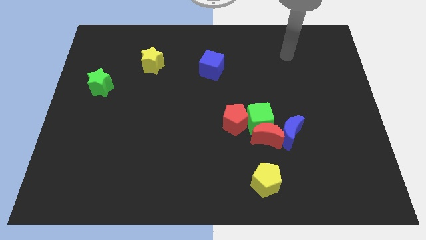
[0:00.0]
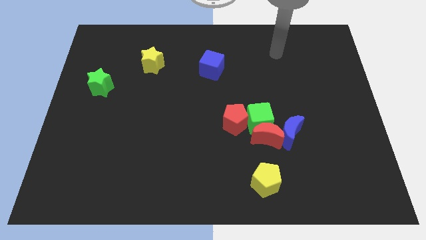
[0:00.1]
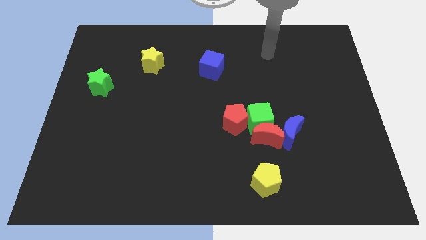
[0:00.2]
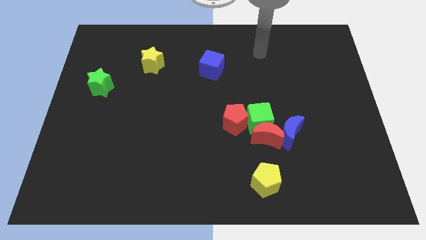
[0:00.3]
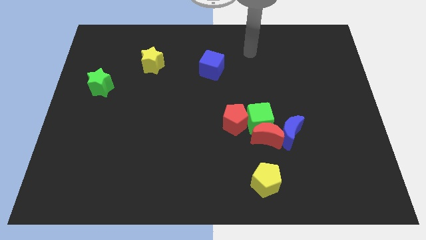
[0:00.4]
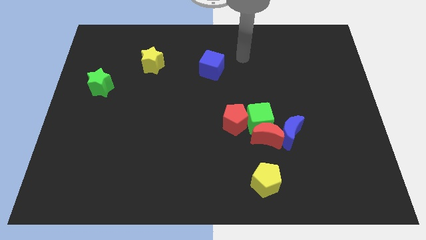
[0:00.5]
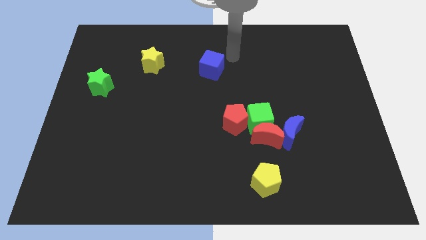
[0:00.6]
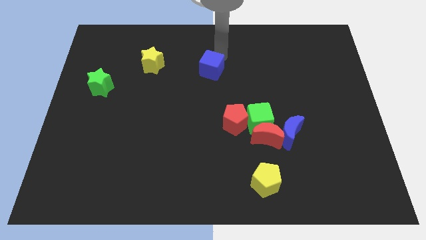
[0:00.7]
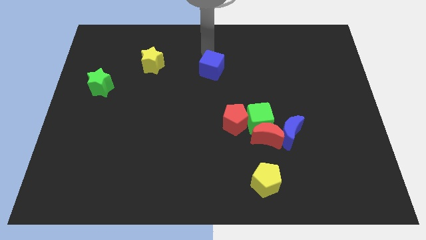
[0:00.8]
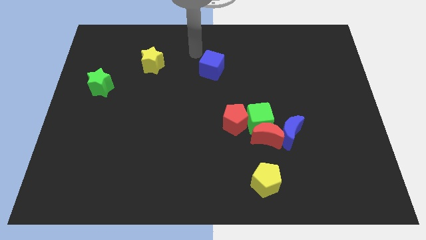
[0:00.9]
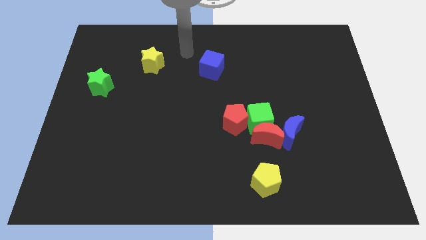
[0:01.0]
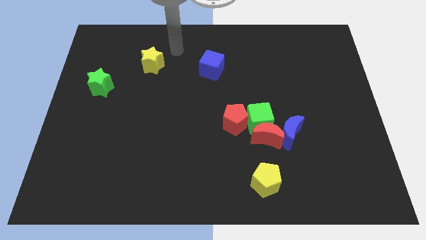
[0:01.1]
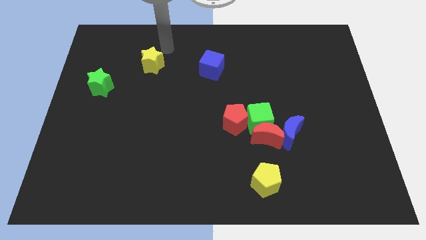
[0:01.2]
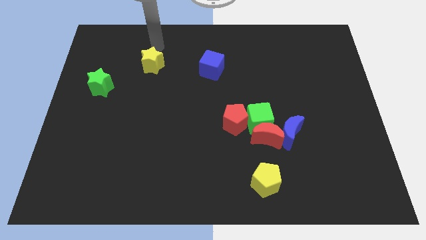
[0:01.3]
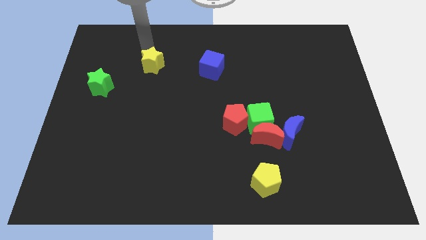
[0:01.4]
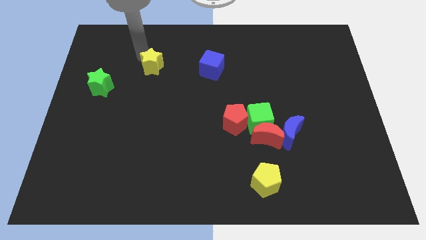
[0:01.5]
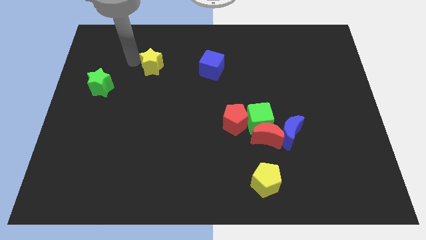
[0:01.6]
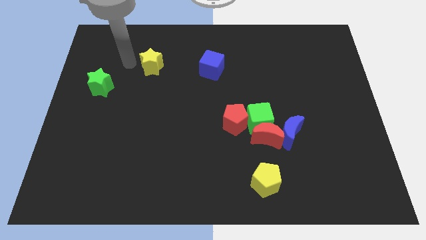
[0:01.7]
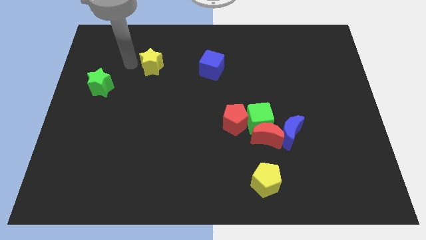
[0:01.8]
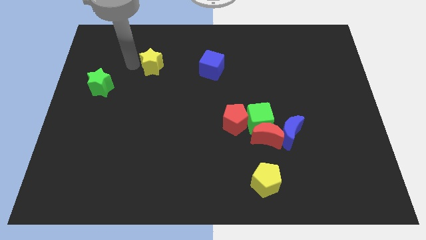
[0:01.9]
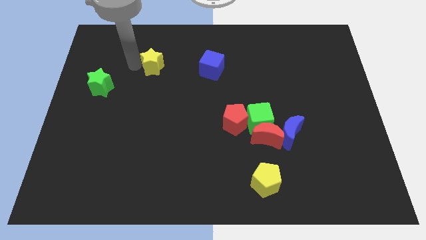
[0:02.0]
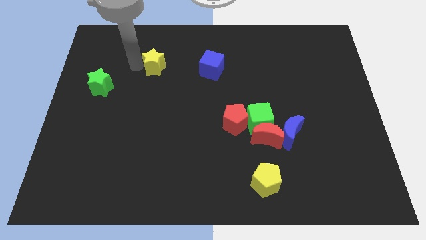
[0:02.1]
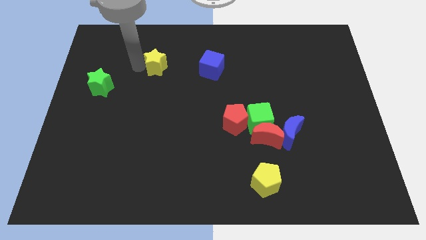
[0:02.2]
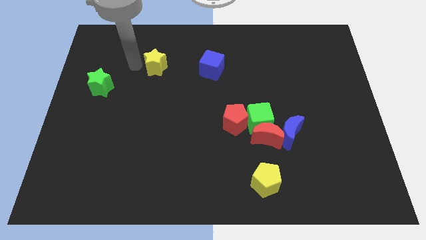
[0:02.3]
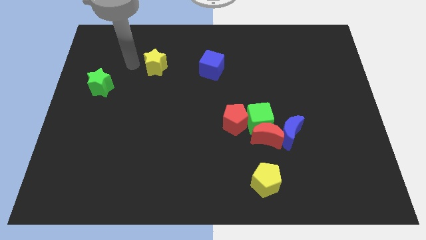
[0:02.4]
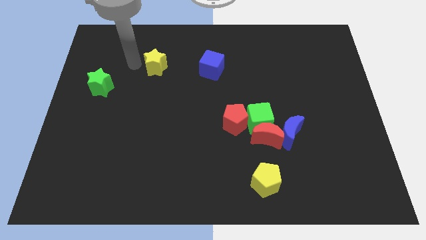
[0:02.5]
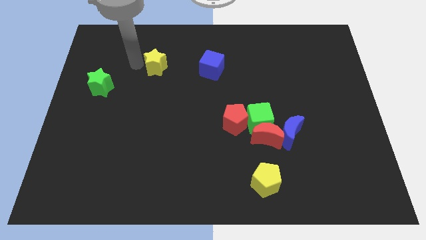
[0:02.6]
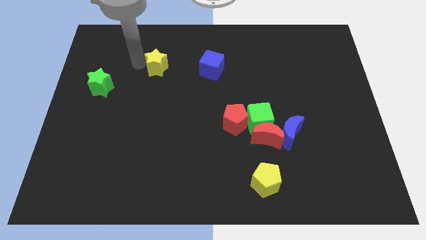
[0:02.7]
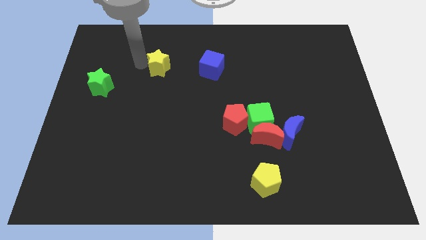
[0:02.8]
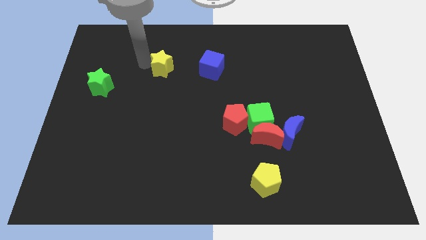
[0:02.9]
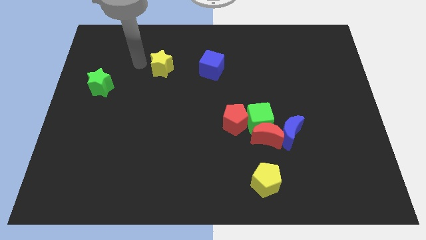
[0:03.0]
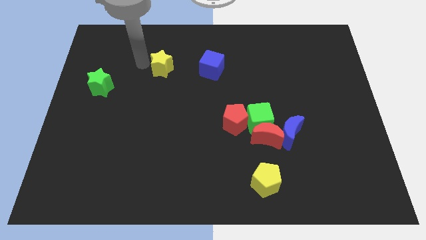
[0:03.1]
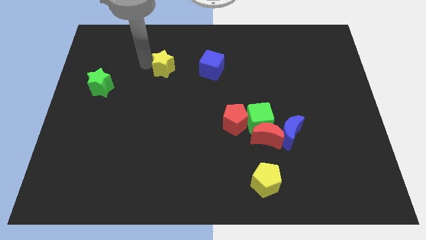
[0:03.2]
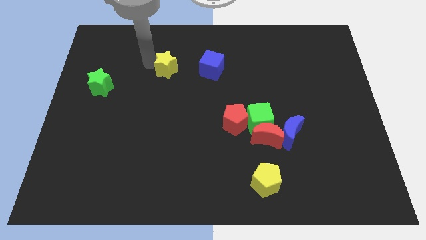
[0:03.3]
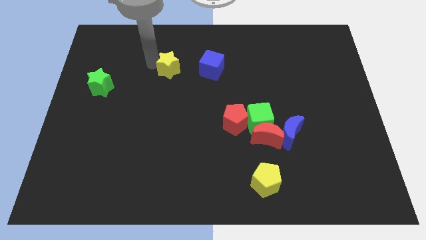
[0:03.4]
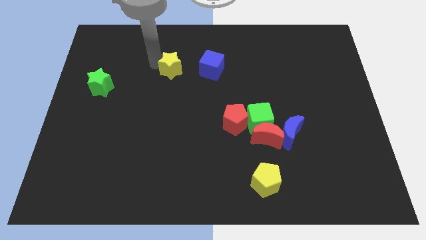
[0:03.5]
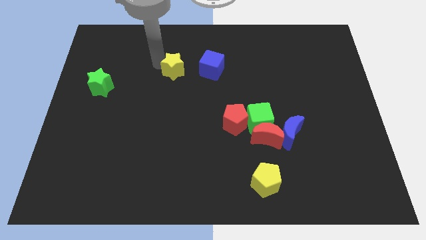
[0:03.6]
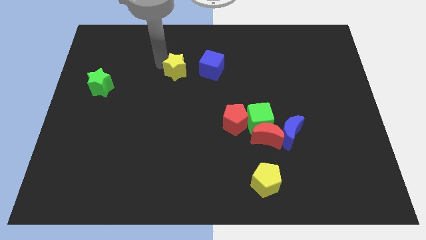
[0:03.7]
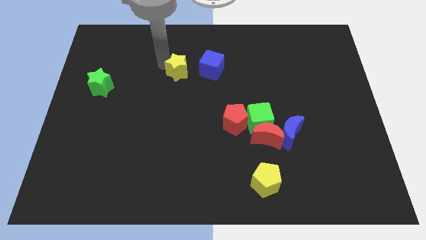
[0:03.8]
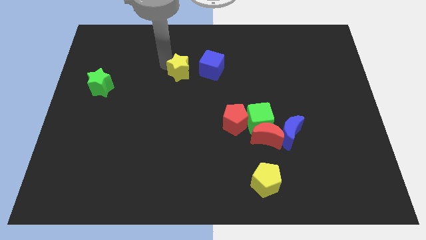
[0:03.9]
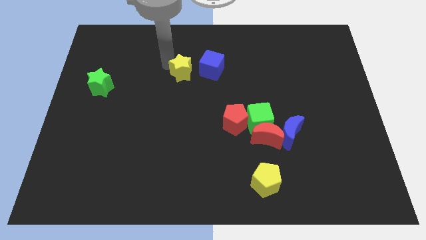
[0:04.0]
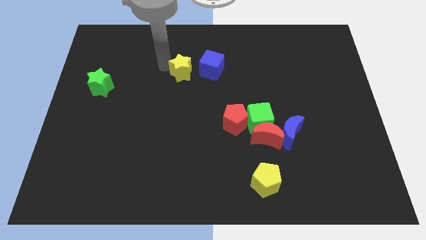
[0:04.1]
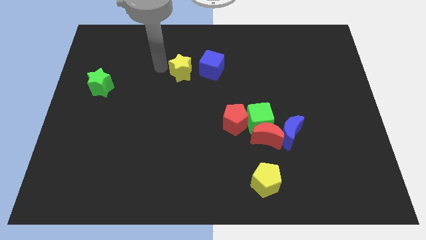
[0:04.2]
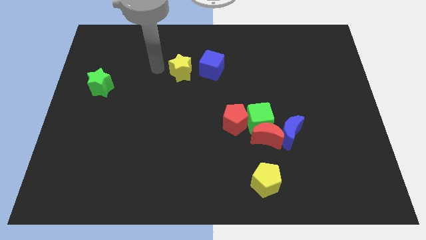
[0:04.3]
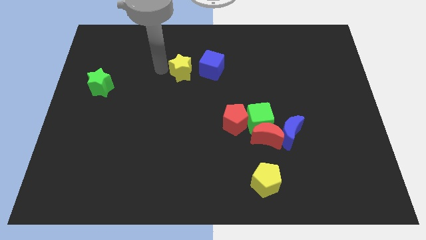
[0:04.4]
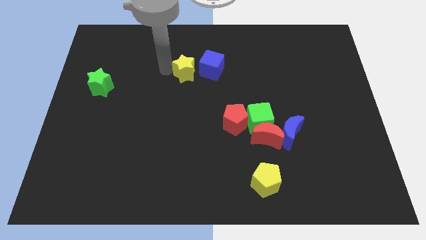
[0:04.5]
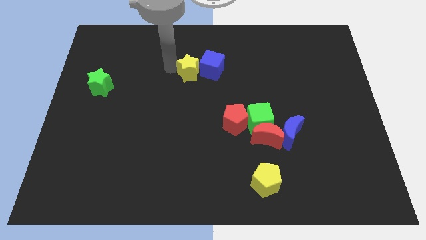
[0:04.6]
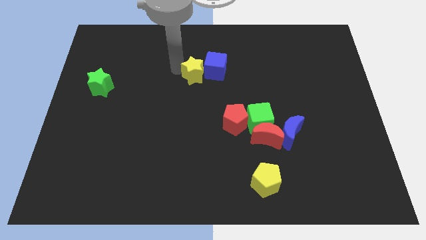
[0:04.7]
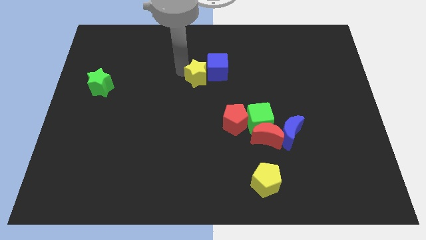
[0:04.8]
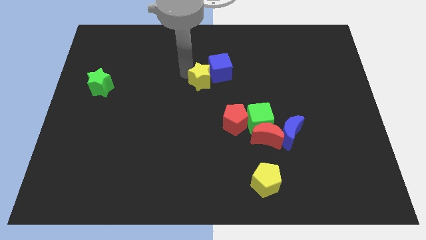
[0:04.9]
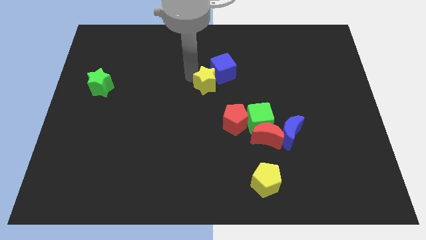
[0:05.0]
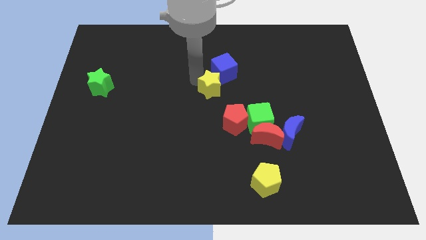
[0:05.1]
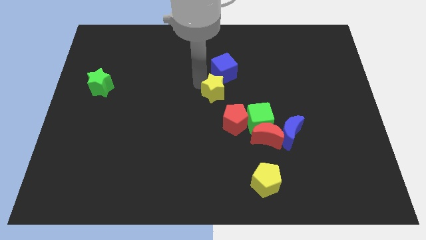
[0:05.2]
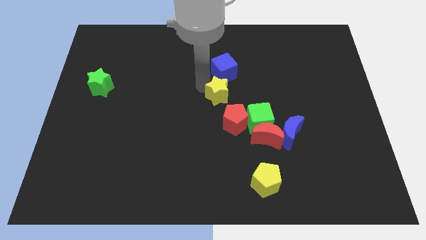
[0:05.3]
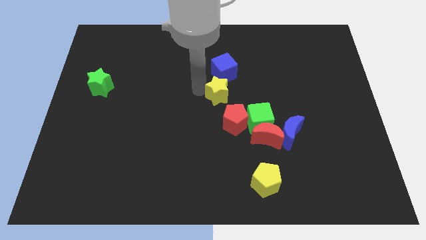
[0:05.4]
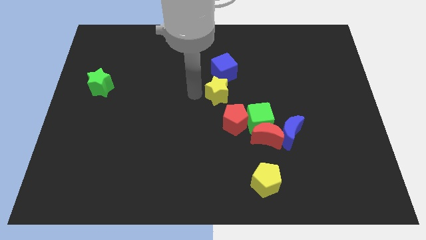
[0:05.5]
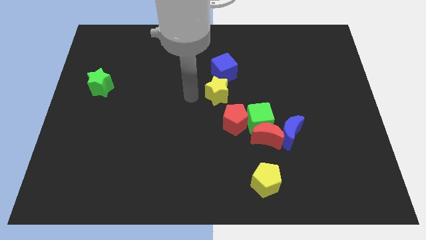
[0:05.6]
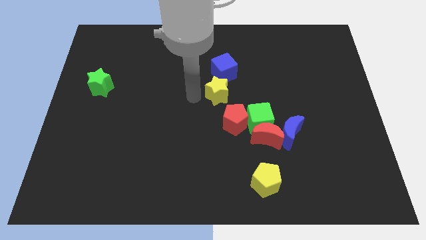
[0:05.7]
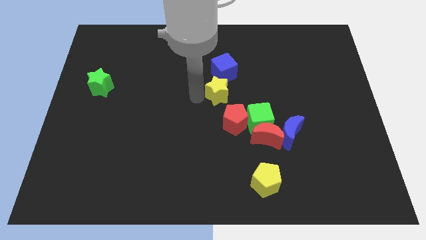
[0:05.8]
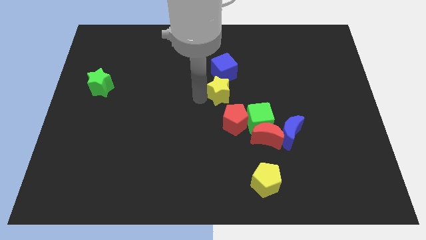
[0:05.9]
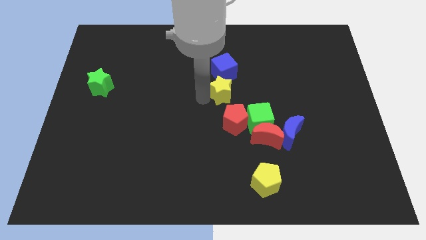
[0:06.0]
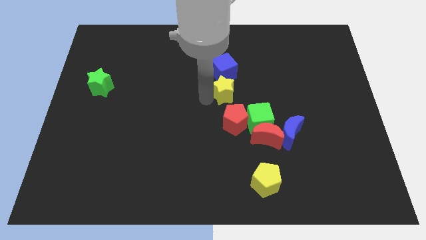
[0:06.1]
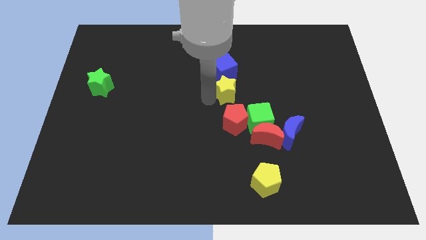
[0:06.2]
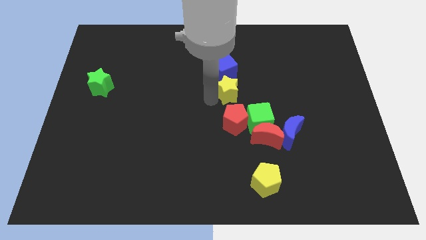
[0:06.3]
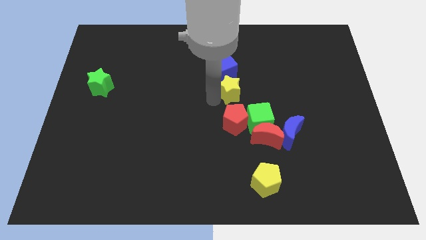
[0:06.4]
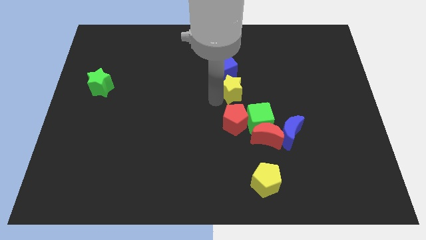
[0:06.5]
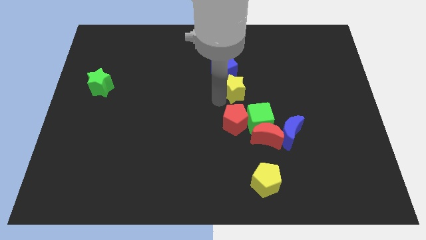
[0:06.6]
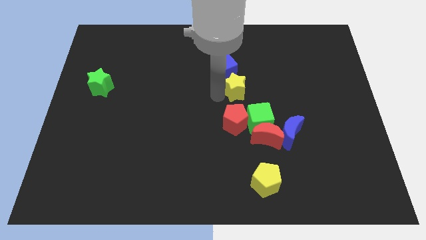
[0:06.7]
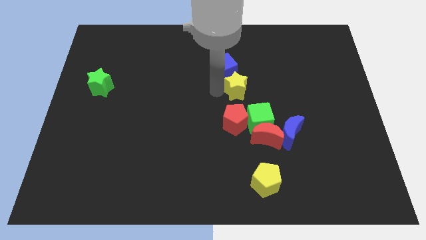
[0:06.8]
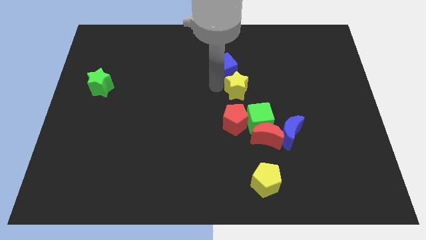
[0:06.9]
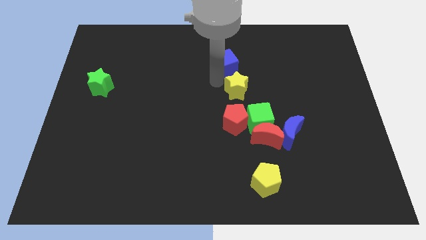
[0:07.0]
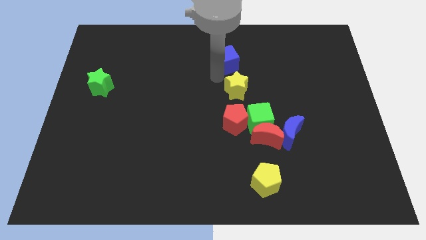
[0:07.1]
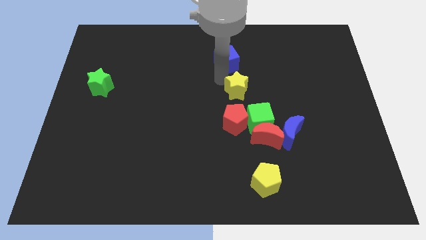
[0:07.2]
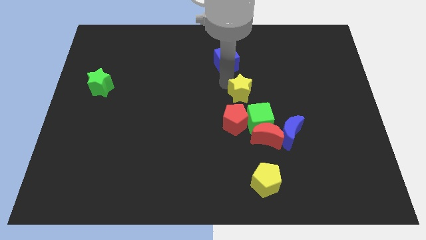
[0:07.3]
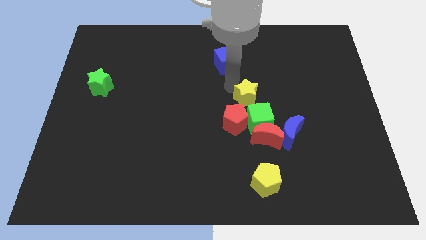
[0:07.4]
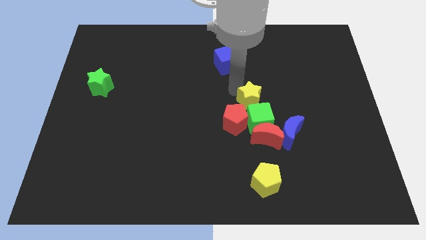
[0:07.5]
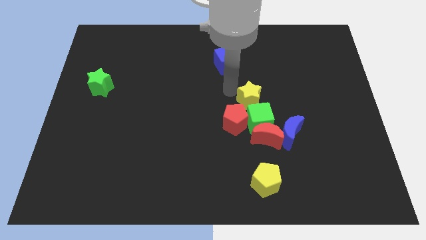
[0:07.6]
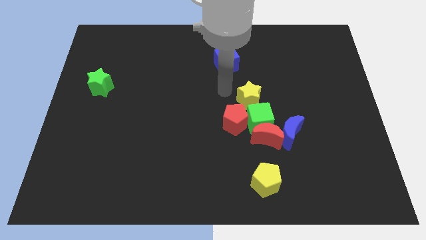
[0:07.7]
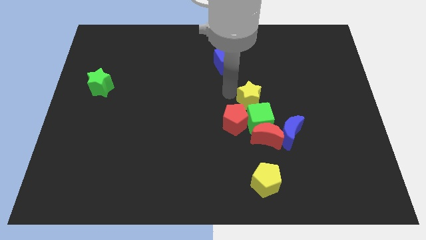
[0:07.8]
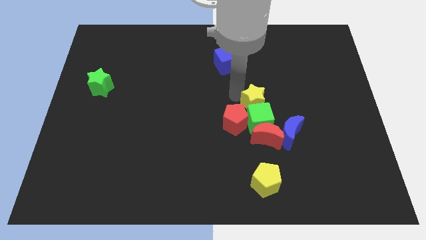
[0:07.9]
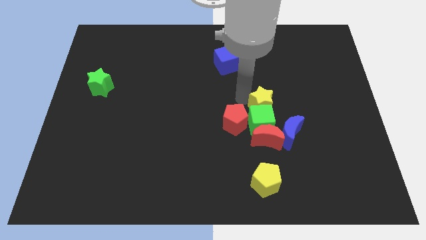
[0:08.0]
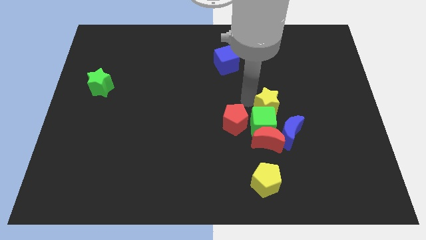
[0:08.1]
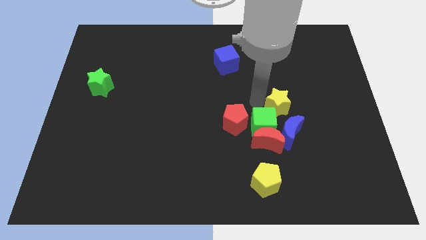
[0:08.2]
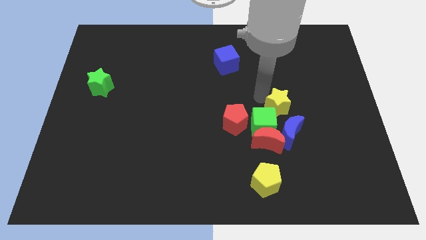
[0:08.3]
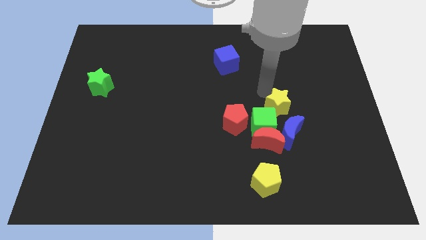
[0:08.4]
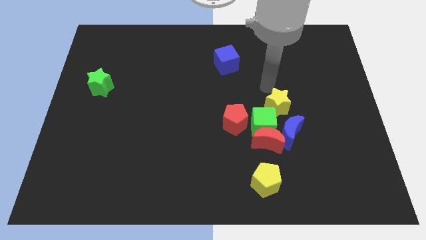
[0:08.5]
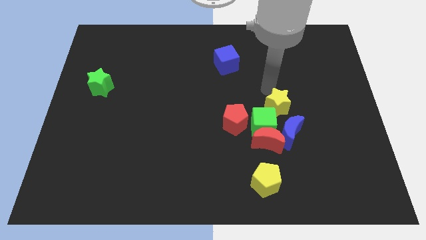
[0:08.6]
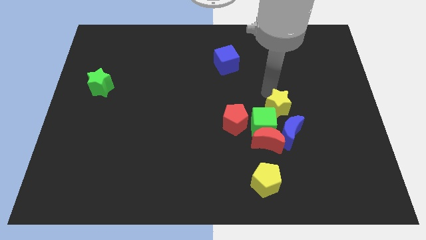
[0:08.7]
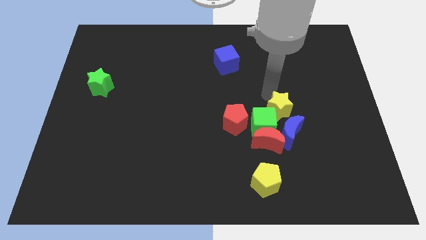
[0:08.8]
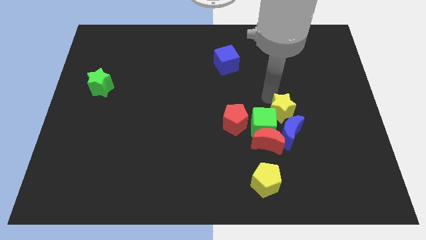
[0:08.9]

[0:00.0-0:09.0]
move the yellow star to the blue moon
